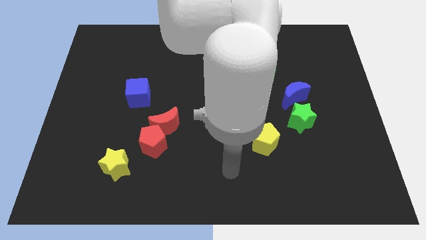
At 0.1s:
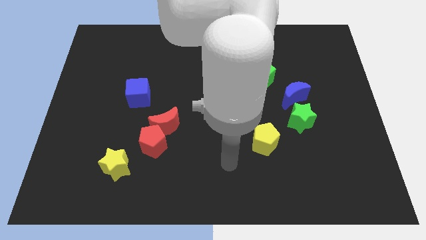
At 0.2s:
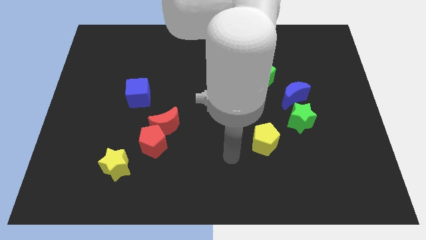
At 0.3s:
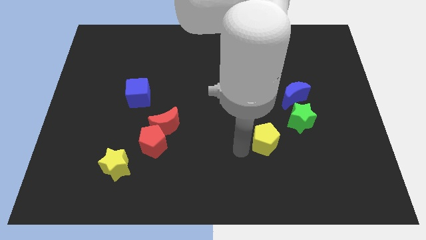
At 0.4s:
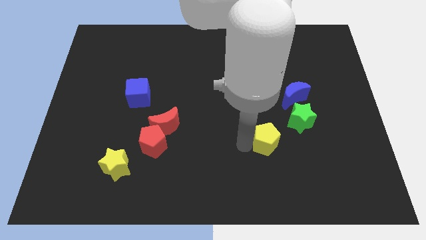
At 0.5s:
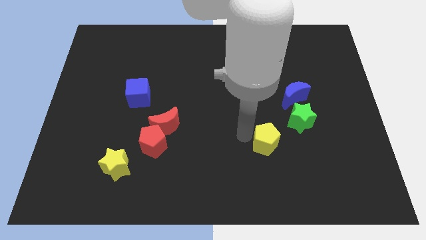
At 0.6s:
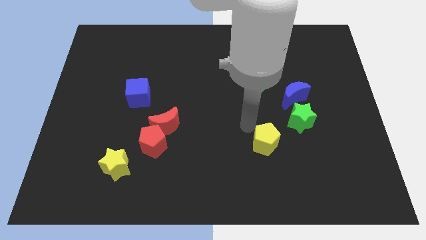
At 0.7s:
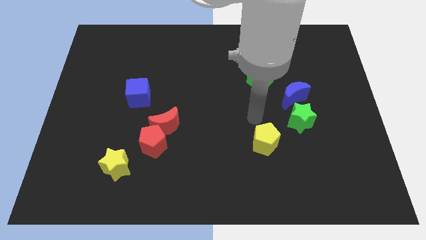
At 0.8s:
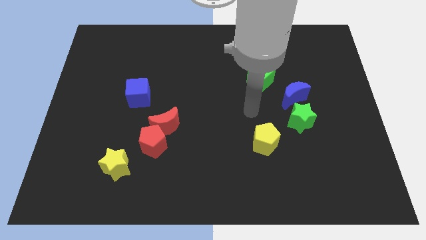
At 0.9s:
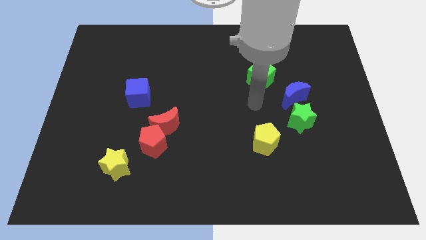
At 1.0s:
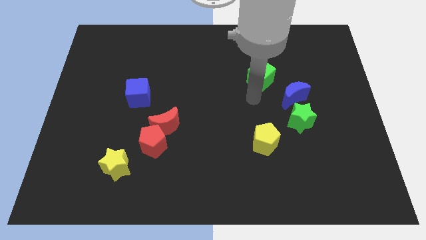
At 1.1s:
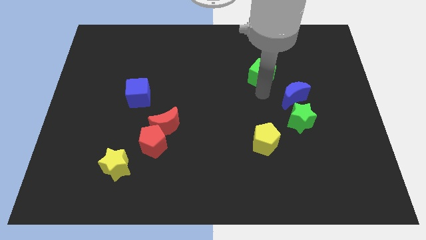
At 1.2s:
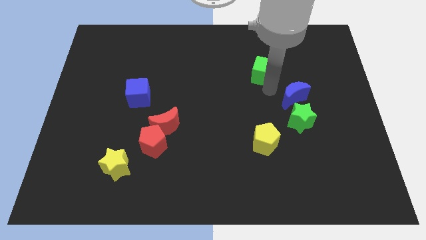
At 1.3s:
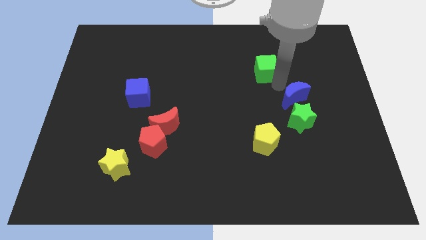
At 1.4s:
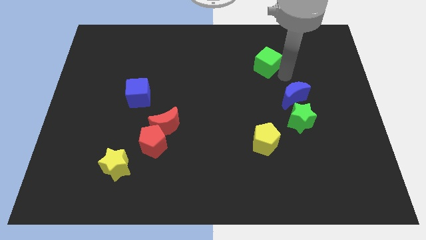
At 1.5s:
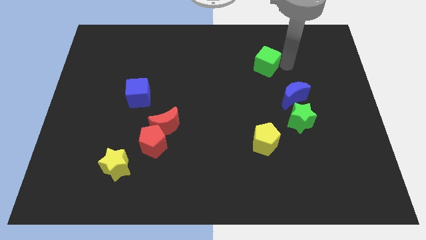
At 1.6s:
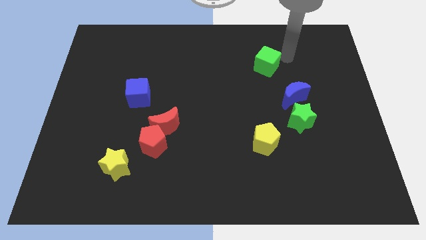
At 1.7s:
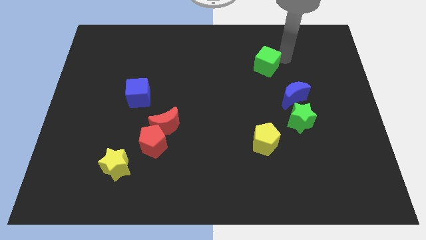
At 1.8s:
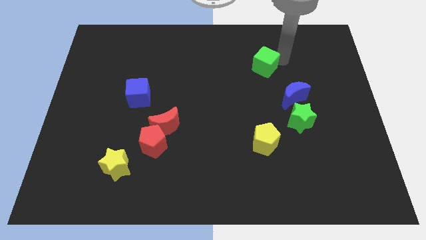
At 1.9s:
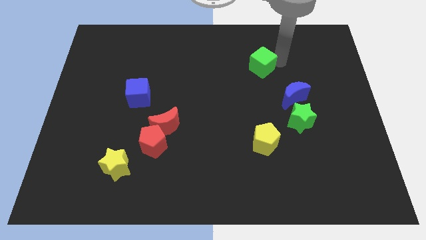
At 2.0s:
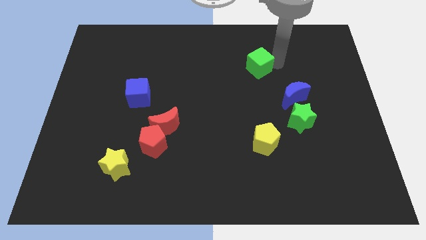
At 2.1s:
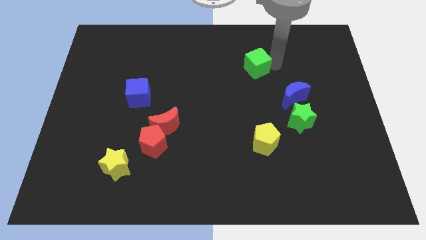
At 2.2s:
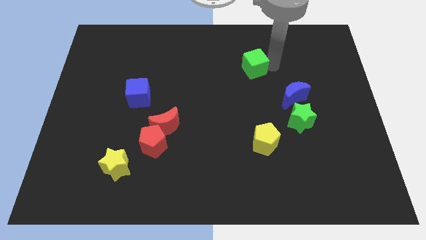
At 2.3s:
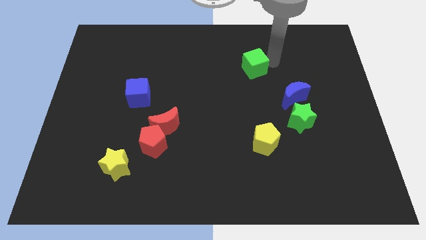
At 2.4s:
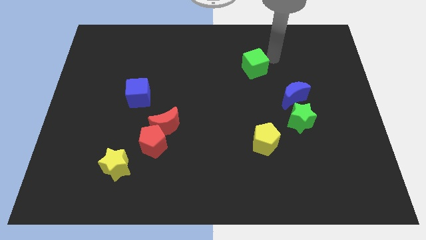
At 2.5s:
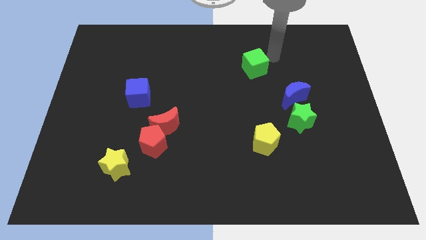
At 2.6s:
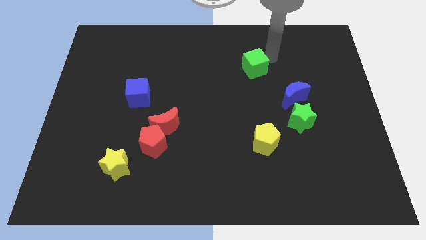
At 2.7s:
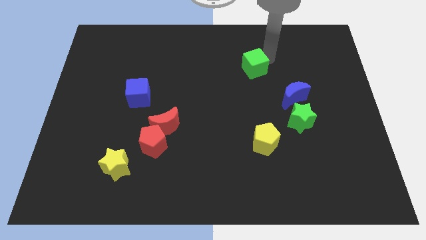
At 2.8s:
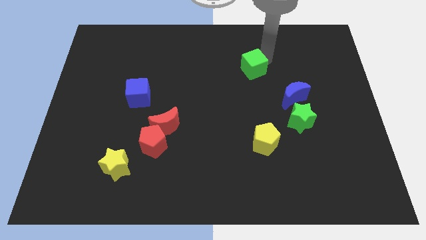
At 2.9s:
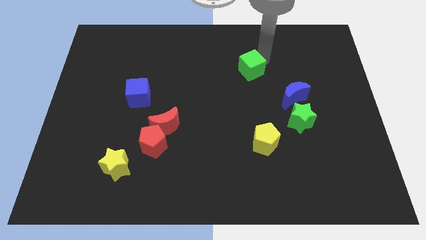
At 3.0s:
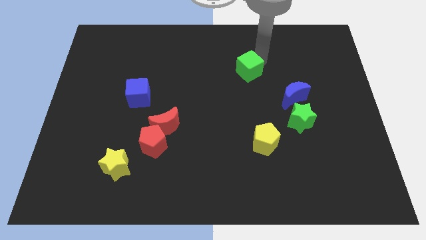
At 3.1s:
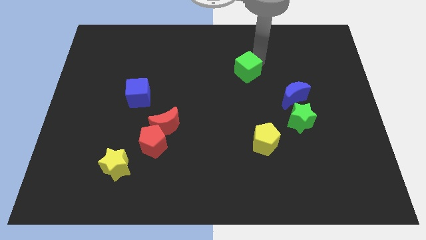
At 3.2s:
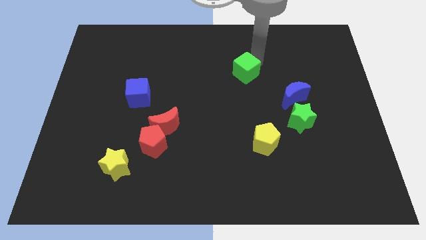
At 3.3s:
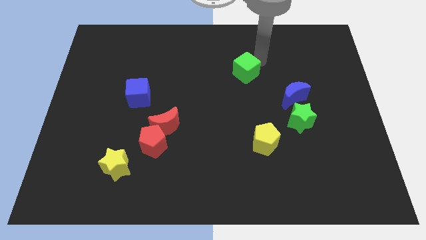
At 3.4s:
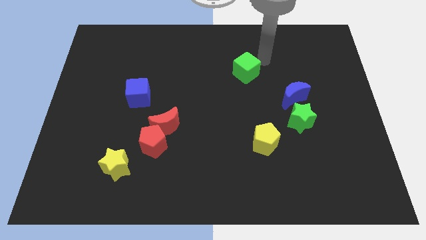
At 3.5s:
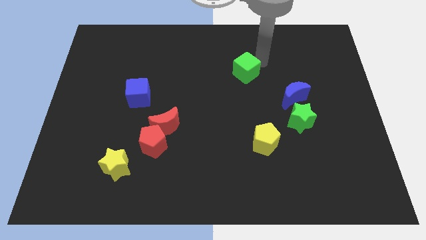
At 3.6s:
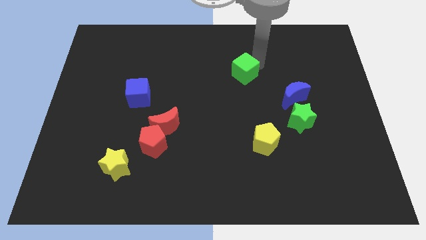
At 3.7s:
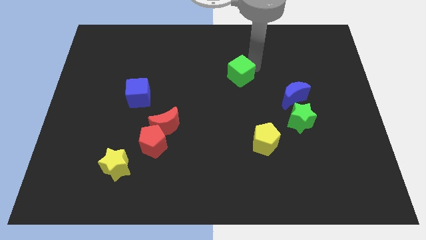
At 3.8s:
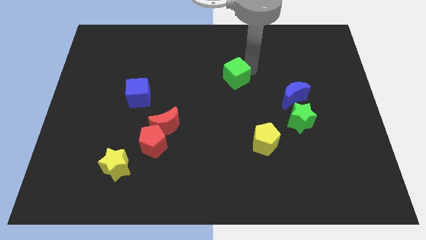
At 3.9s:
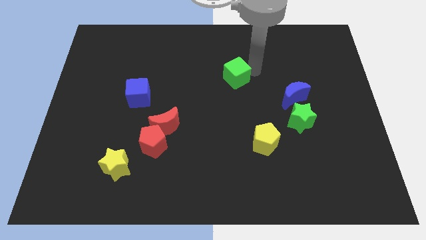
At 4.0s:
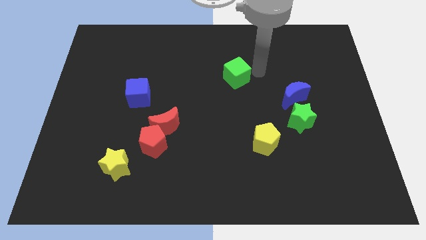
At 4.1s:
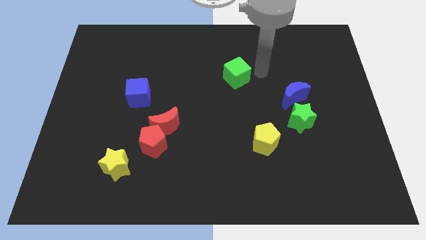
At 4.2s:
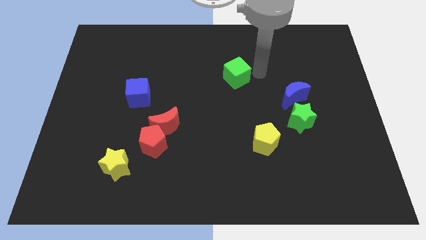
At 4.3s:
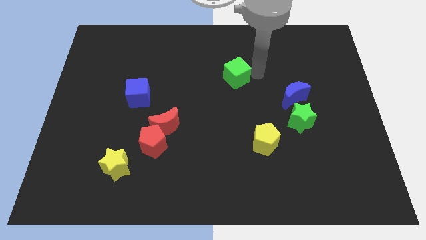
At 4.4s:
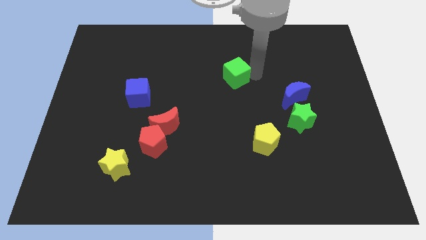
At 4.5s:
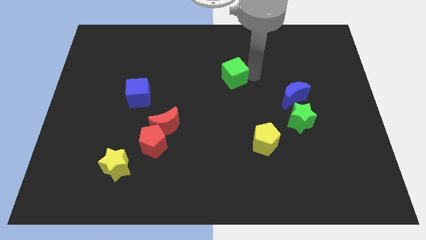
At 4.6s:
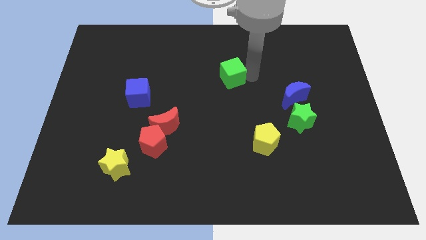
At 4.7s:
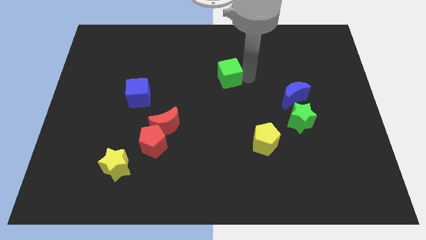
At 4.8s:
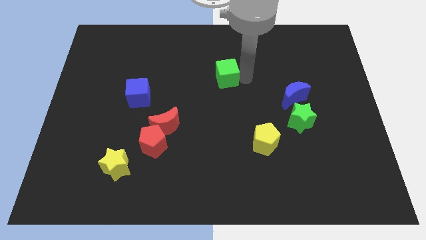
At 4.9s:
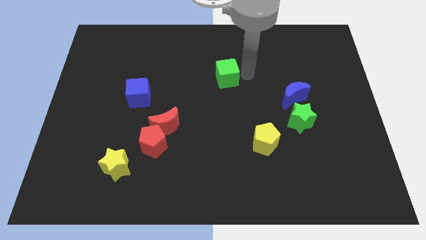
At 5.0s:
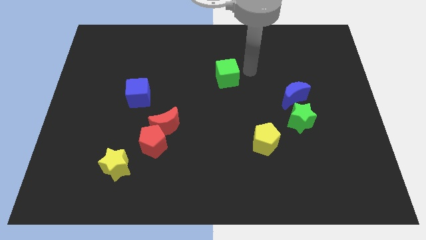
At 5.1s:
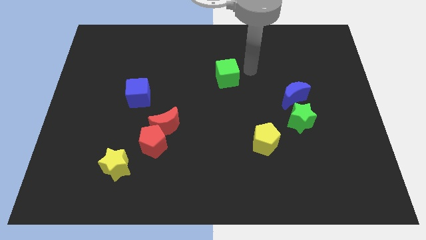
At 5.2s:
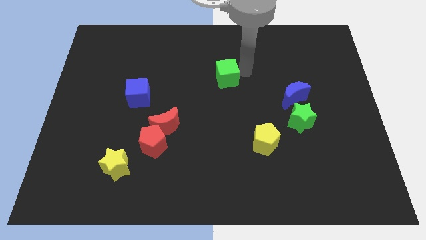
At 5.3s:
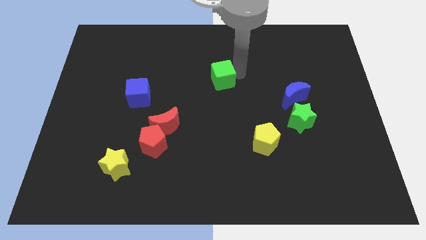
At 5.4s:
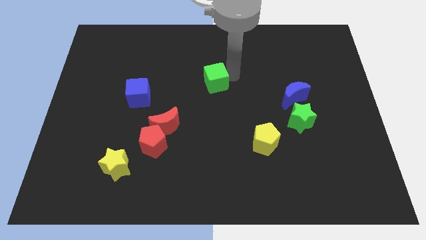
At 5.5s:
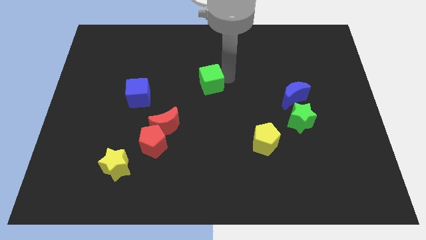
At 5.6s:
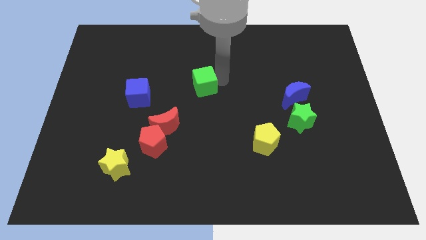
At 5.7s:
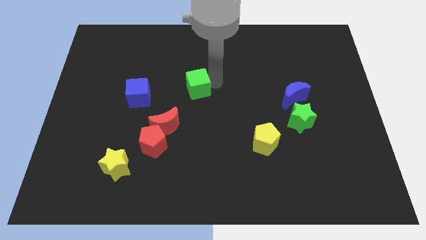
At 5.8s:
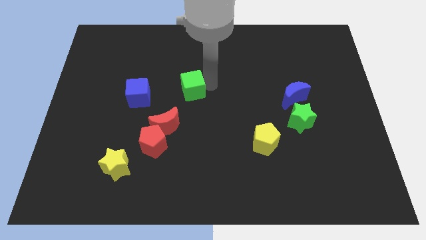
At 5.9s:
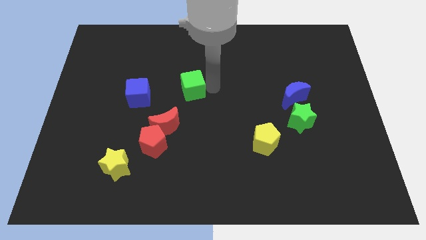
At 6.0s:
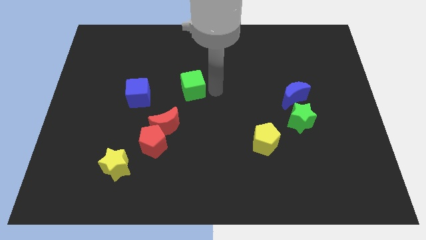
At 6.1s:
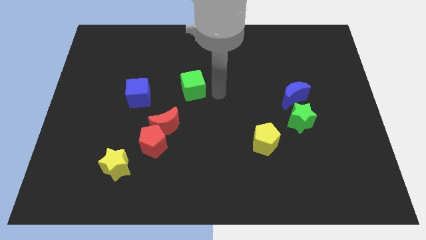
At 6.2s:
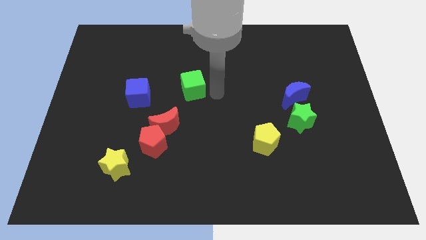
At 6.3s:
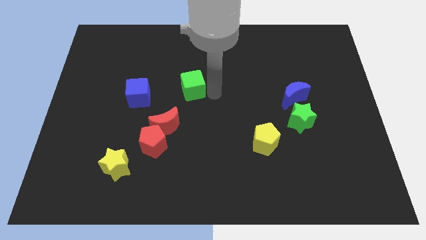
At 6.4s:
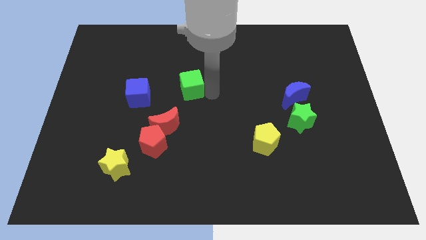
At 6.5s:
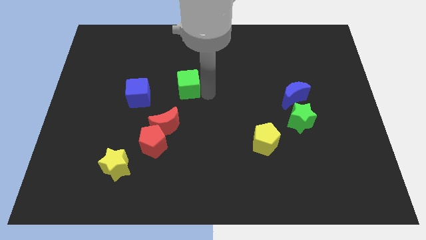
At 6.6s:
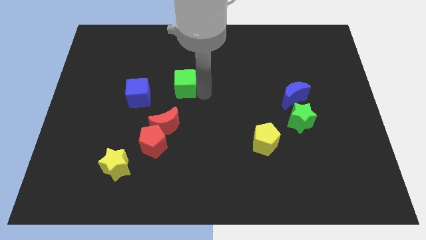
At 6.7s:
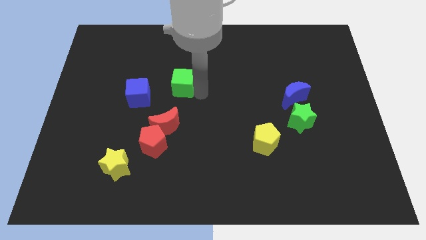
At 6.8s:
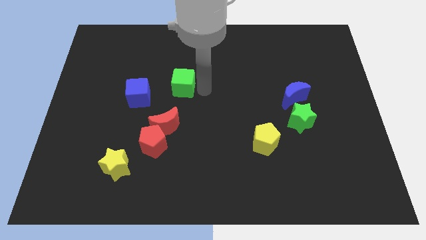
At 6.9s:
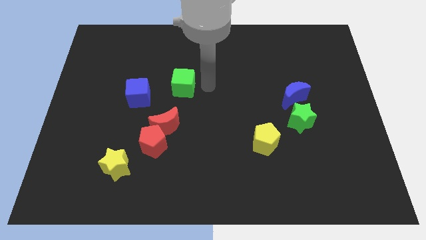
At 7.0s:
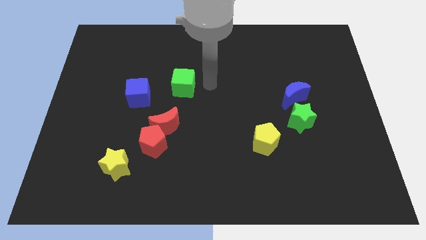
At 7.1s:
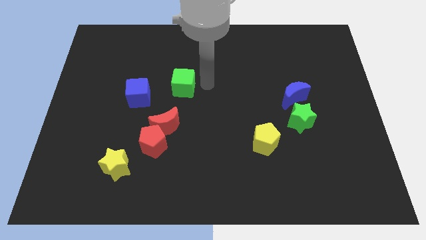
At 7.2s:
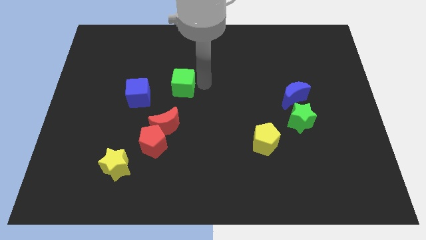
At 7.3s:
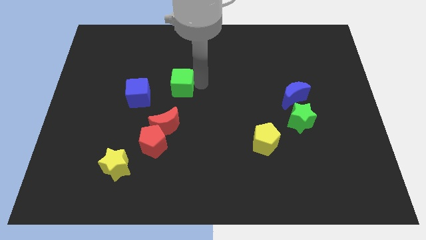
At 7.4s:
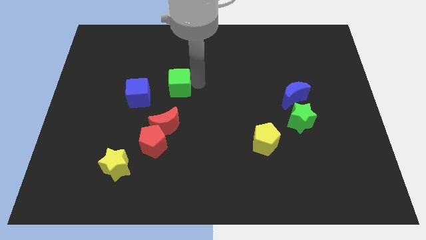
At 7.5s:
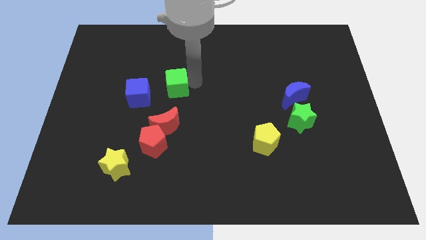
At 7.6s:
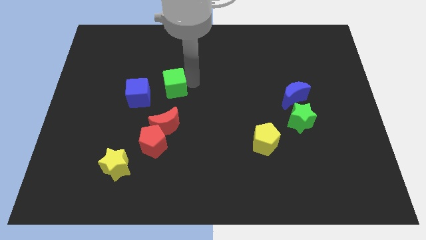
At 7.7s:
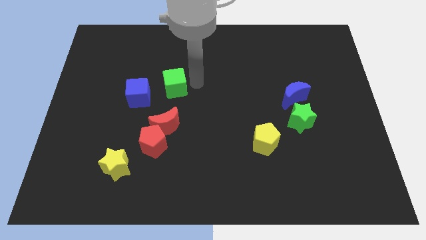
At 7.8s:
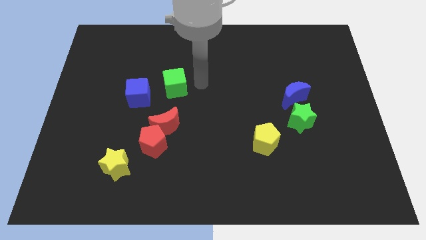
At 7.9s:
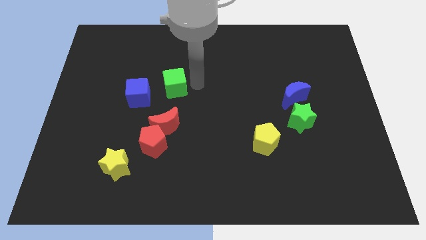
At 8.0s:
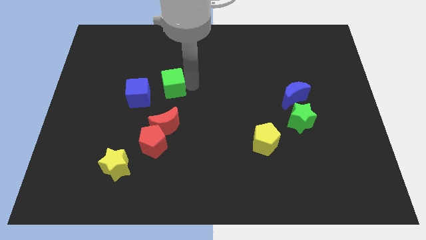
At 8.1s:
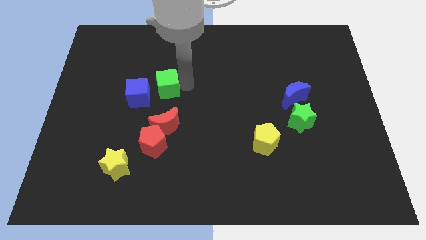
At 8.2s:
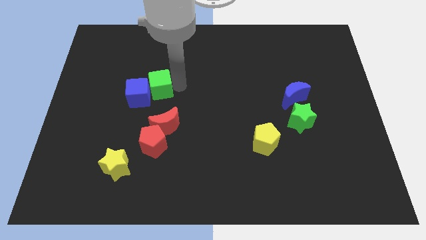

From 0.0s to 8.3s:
push the green cube to the blue cube
